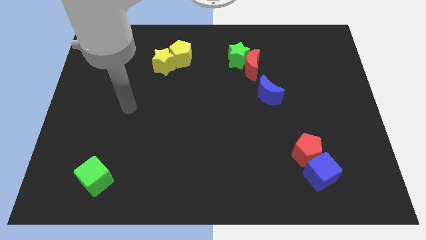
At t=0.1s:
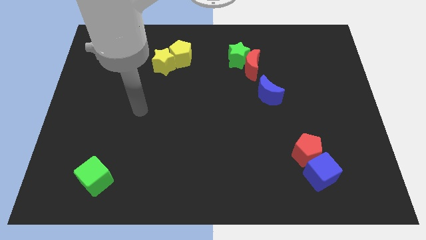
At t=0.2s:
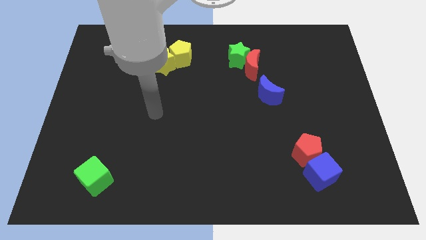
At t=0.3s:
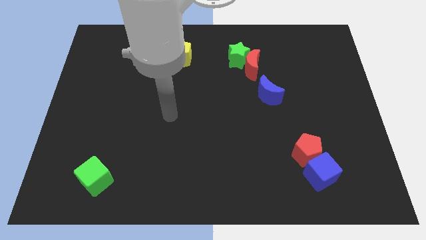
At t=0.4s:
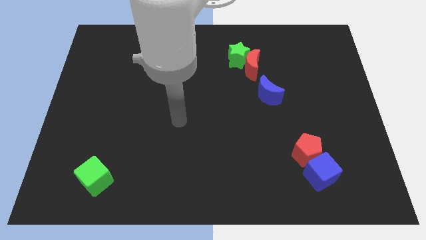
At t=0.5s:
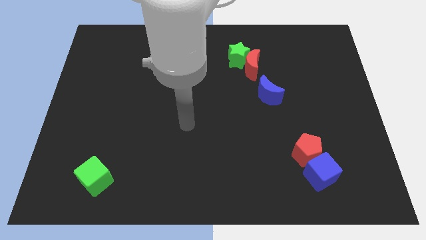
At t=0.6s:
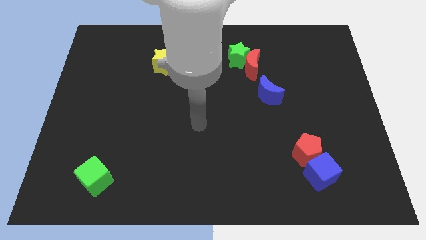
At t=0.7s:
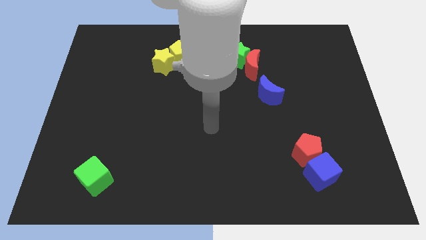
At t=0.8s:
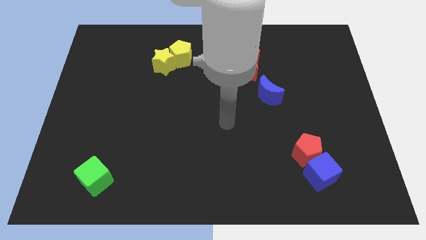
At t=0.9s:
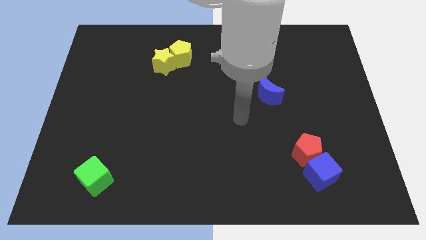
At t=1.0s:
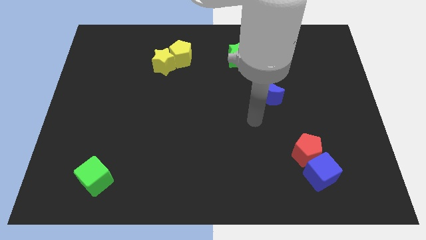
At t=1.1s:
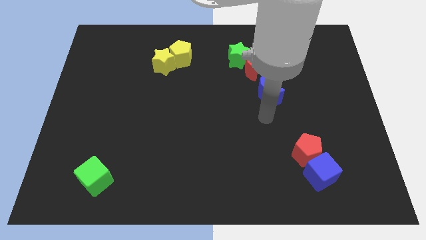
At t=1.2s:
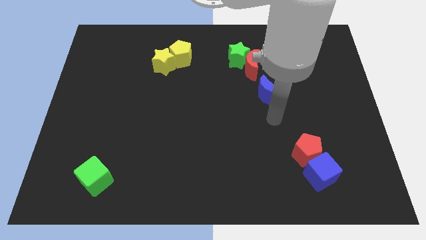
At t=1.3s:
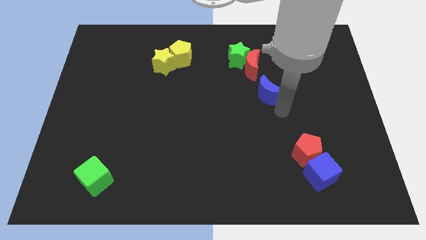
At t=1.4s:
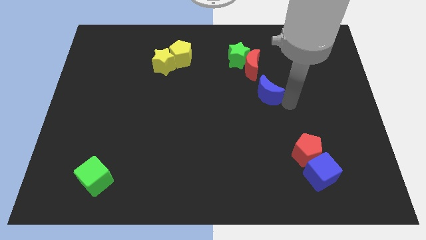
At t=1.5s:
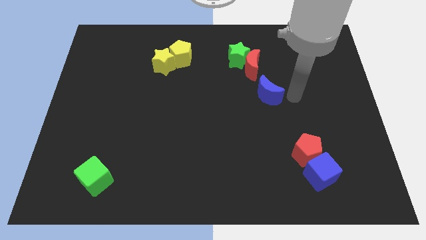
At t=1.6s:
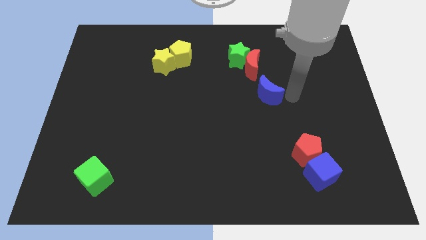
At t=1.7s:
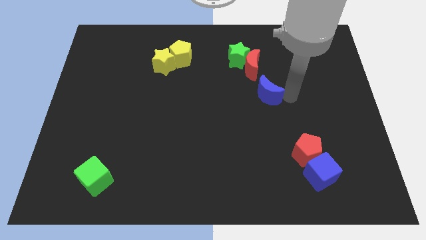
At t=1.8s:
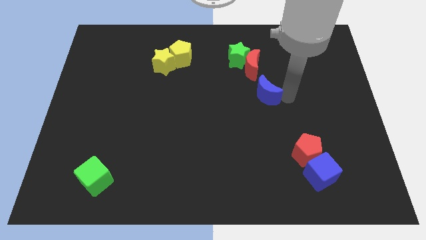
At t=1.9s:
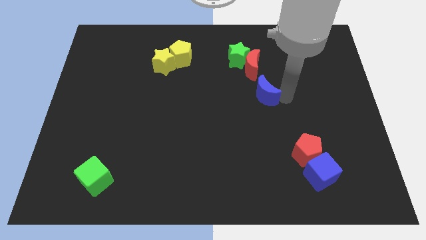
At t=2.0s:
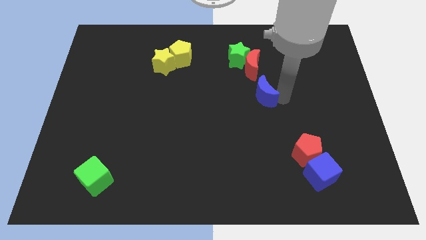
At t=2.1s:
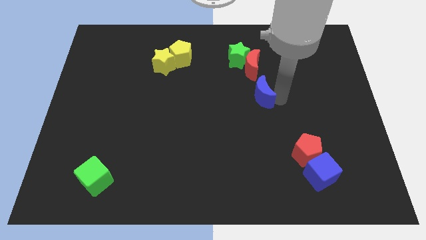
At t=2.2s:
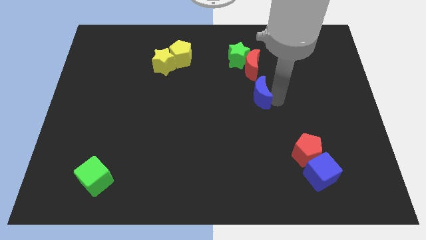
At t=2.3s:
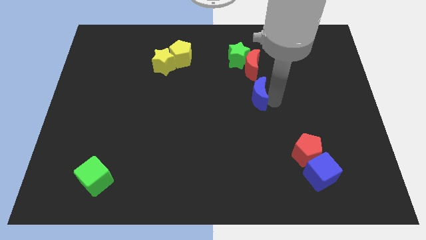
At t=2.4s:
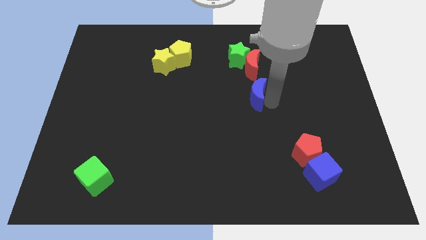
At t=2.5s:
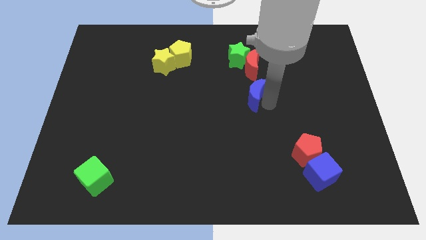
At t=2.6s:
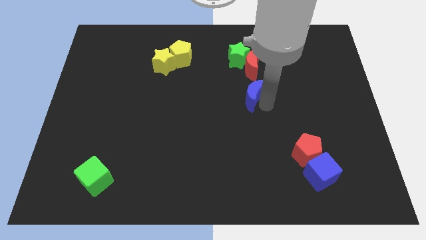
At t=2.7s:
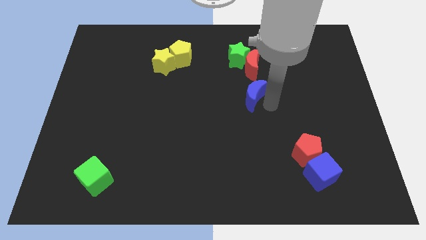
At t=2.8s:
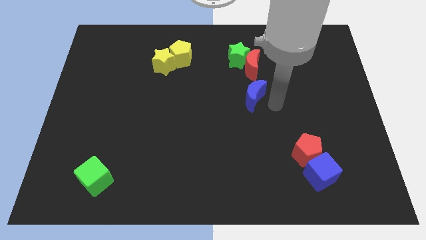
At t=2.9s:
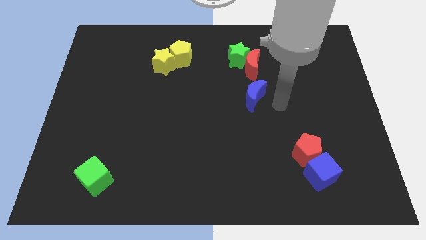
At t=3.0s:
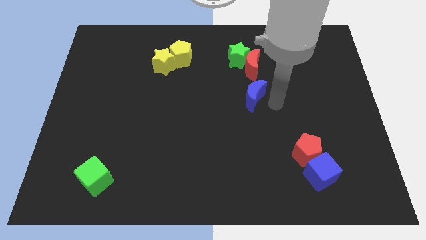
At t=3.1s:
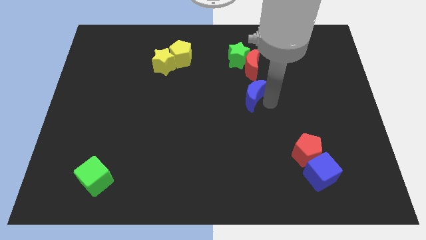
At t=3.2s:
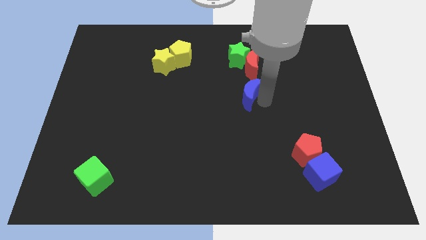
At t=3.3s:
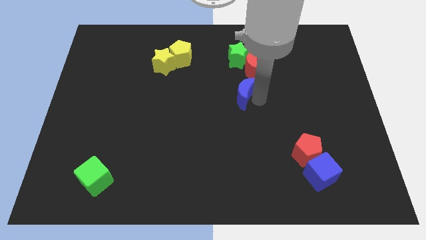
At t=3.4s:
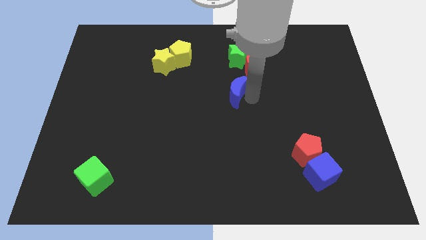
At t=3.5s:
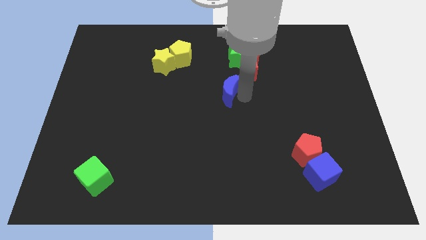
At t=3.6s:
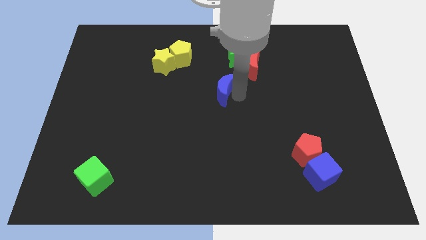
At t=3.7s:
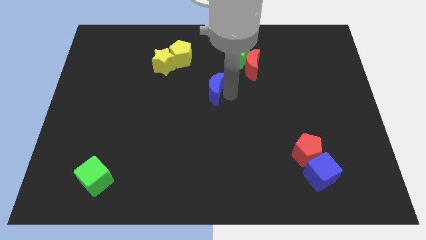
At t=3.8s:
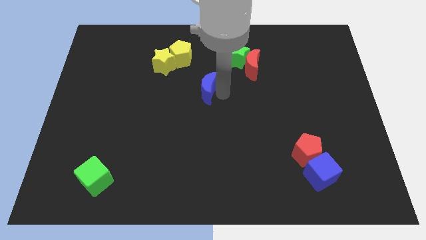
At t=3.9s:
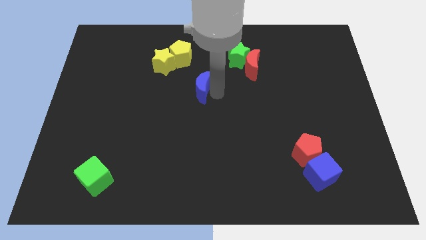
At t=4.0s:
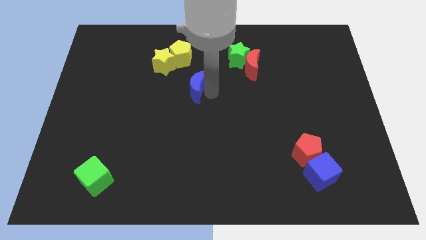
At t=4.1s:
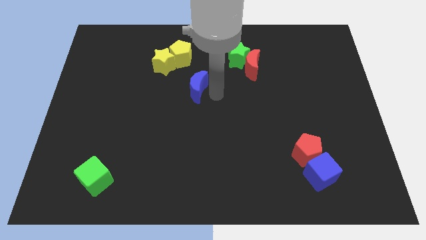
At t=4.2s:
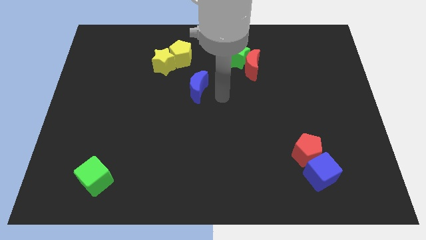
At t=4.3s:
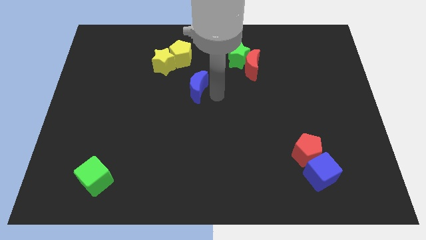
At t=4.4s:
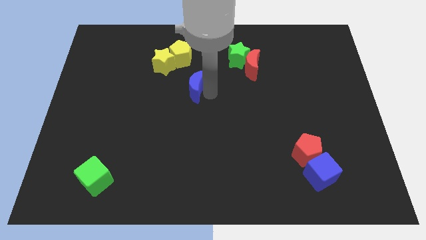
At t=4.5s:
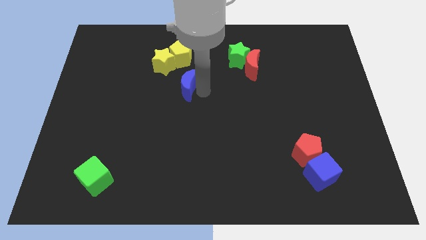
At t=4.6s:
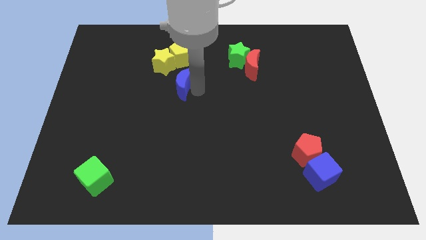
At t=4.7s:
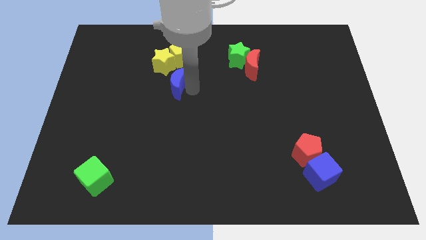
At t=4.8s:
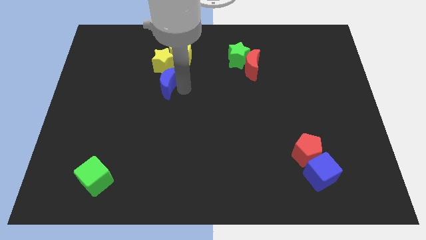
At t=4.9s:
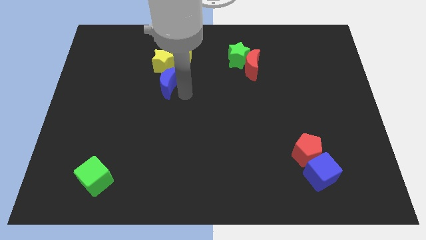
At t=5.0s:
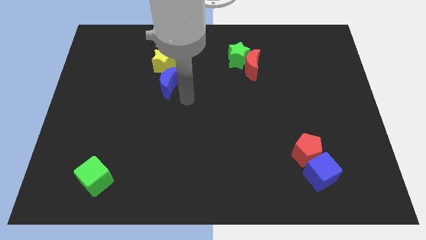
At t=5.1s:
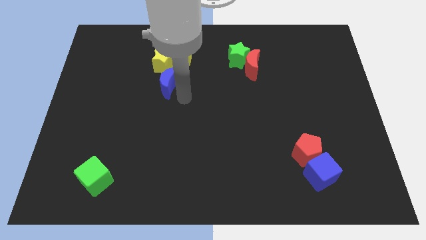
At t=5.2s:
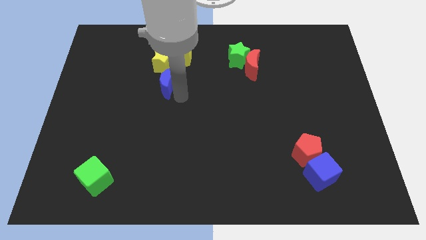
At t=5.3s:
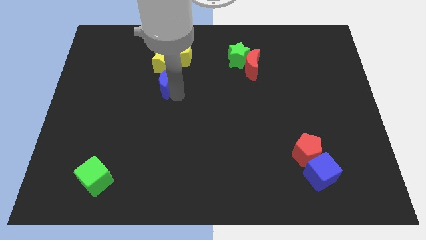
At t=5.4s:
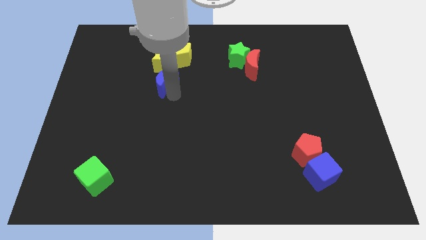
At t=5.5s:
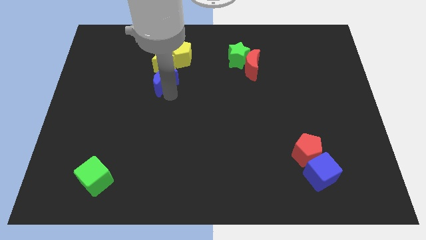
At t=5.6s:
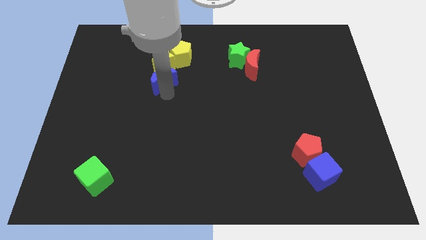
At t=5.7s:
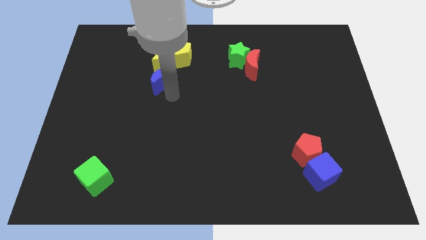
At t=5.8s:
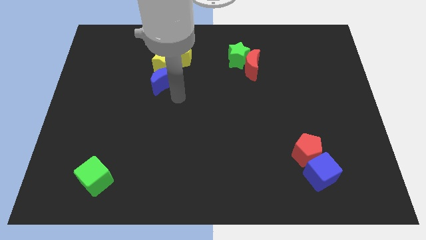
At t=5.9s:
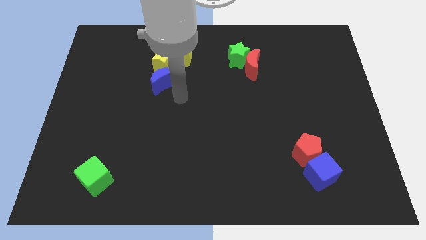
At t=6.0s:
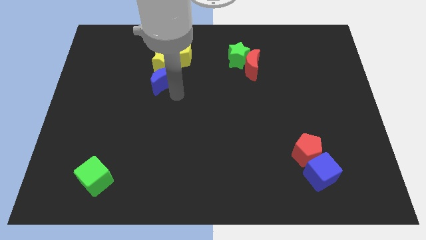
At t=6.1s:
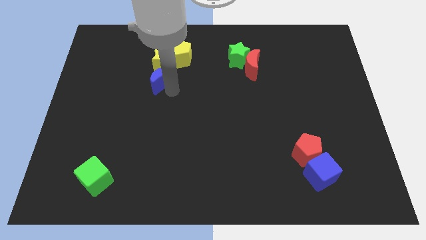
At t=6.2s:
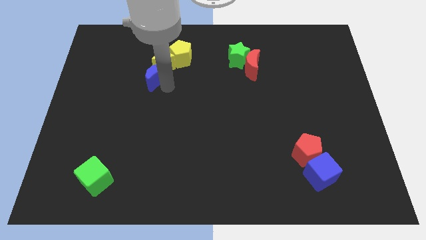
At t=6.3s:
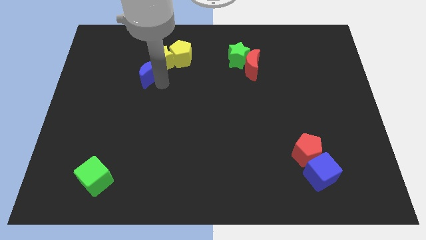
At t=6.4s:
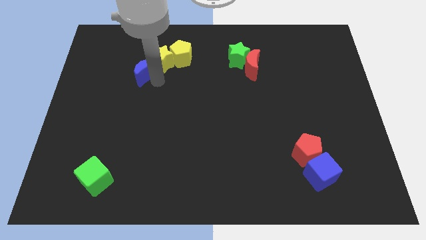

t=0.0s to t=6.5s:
put the blue moon left of the yellow star

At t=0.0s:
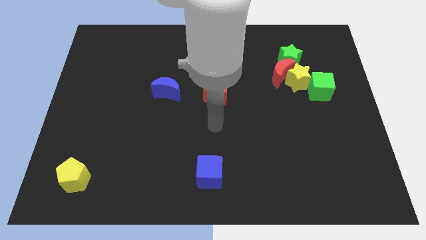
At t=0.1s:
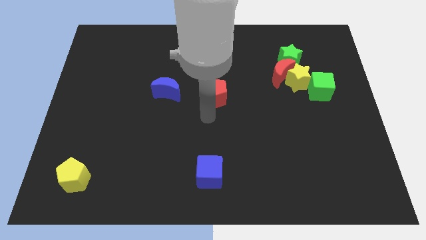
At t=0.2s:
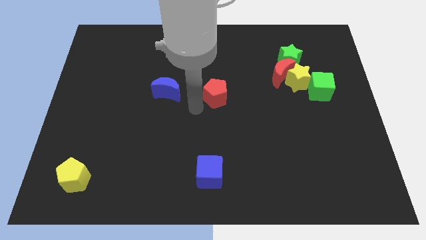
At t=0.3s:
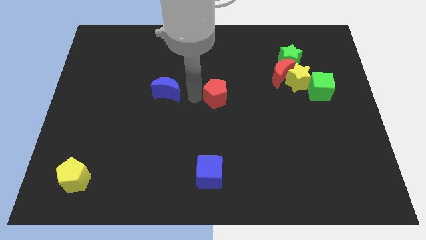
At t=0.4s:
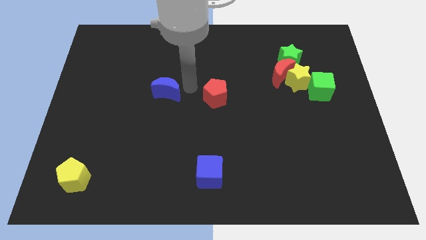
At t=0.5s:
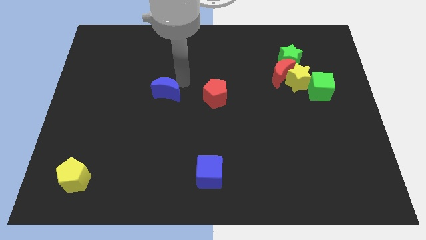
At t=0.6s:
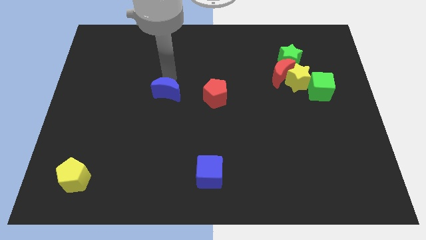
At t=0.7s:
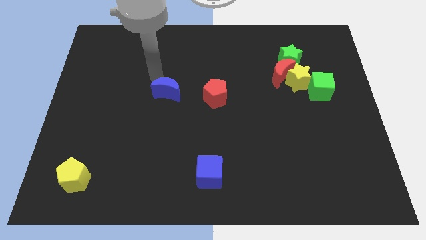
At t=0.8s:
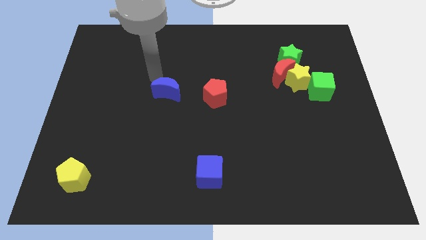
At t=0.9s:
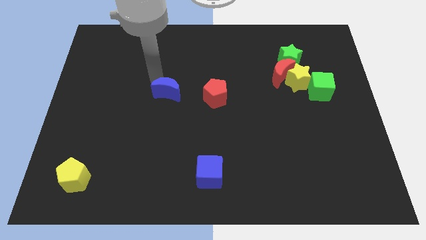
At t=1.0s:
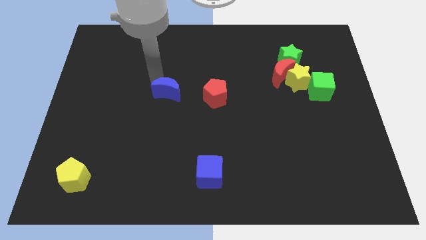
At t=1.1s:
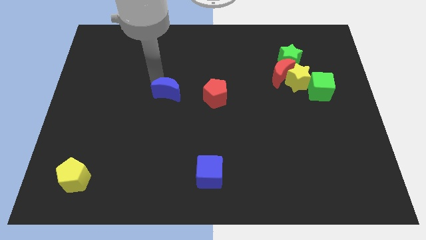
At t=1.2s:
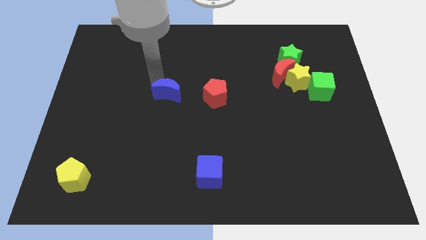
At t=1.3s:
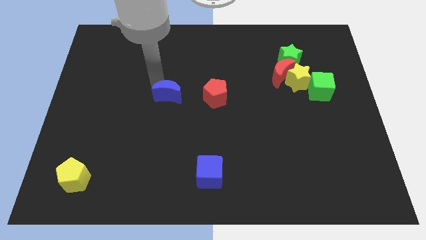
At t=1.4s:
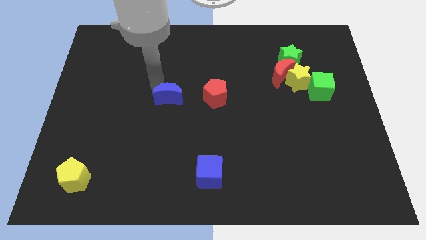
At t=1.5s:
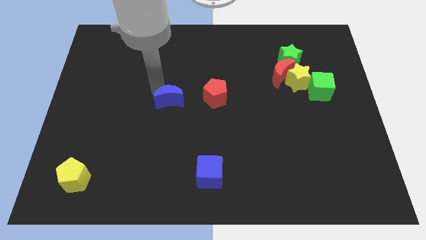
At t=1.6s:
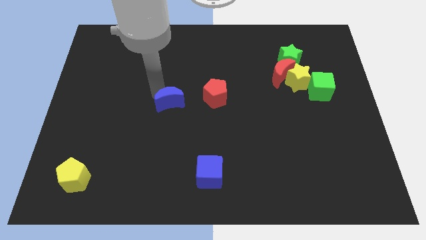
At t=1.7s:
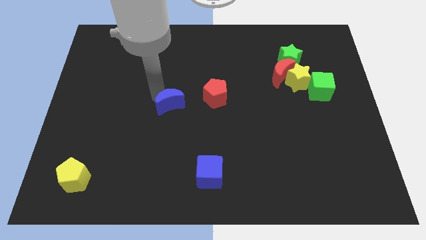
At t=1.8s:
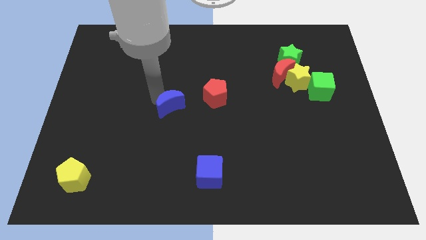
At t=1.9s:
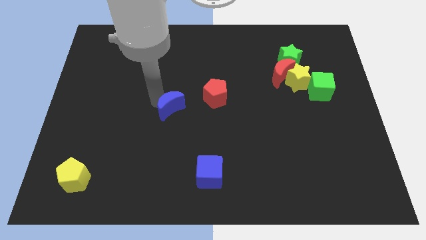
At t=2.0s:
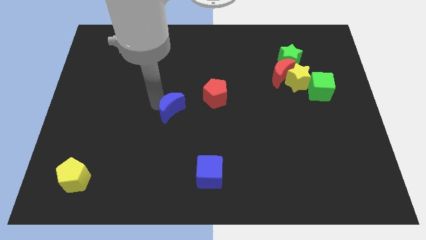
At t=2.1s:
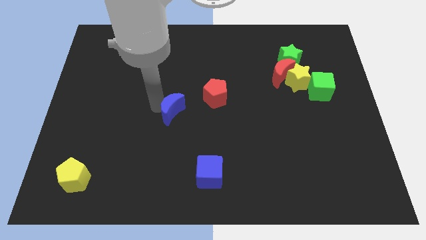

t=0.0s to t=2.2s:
push the blue moon to the bottom left of the red pentagon
